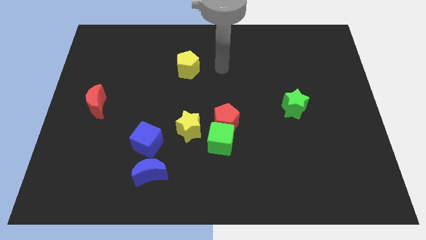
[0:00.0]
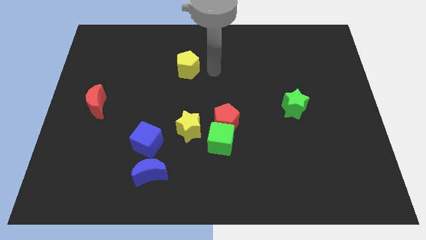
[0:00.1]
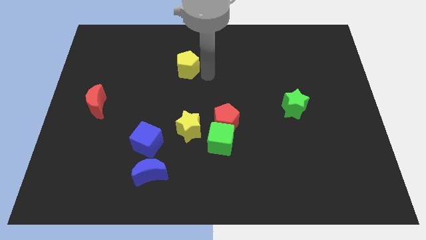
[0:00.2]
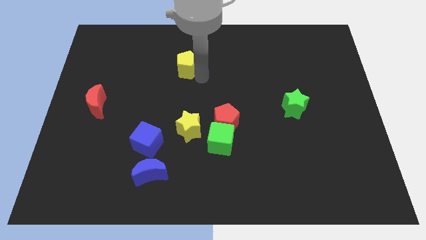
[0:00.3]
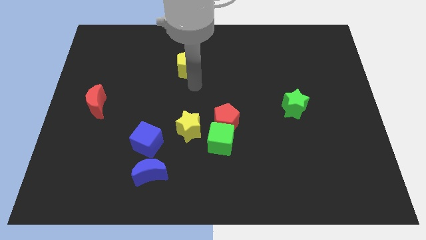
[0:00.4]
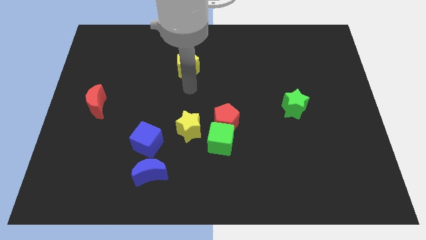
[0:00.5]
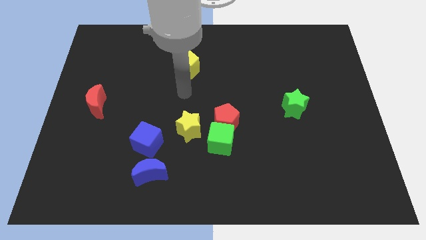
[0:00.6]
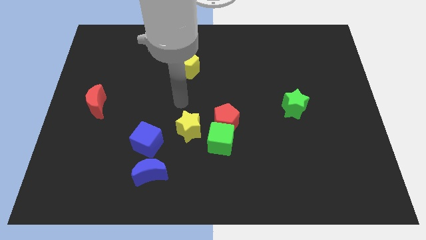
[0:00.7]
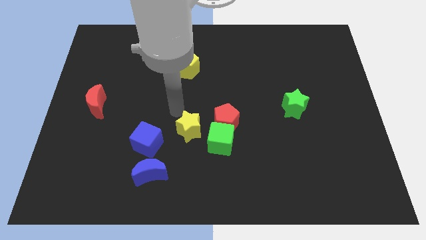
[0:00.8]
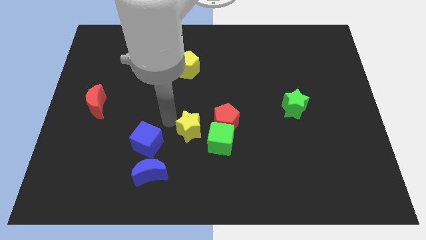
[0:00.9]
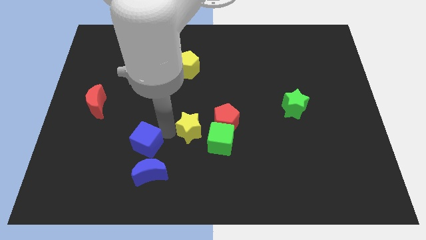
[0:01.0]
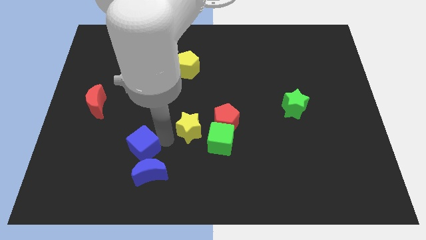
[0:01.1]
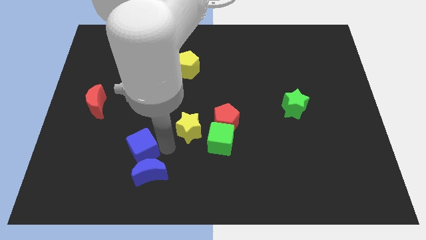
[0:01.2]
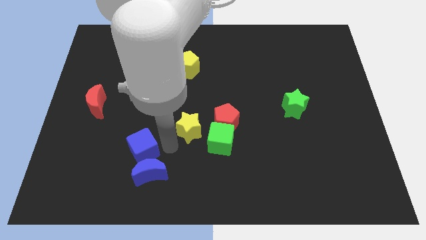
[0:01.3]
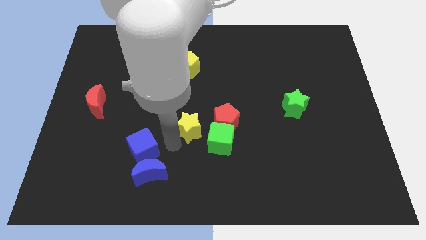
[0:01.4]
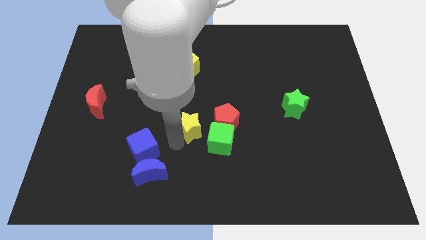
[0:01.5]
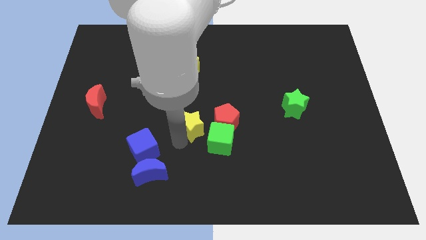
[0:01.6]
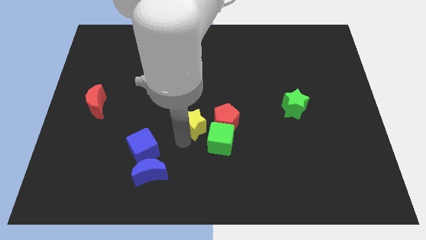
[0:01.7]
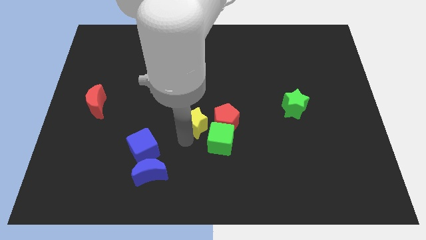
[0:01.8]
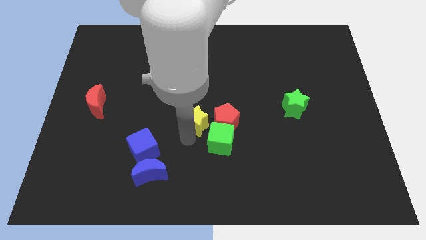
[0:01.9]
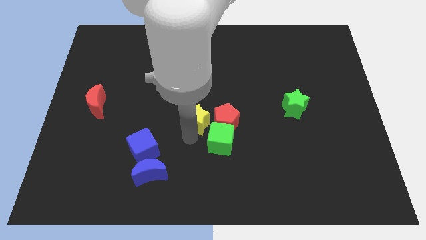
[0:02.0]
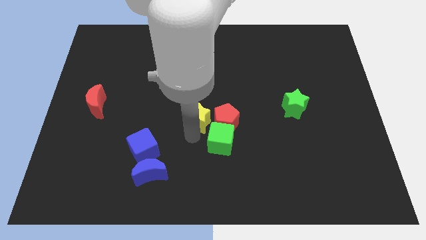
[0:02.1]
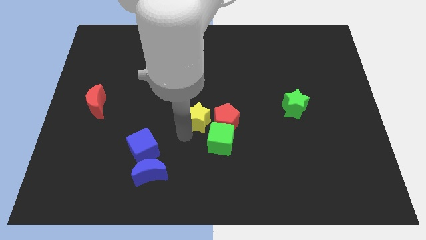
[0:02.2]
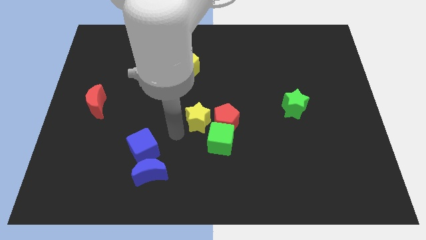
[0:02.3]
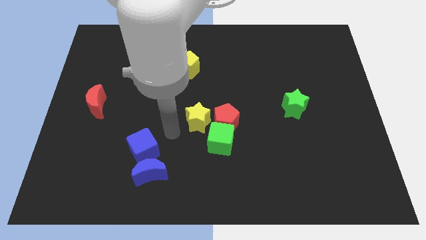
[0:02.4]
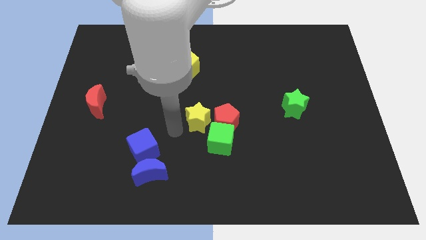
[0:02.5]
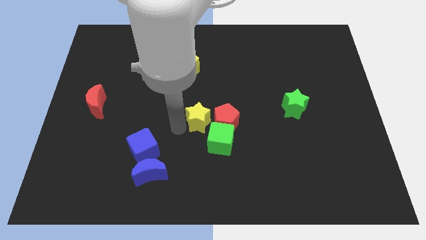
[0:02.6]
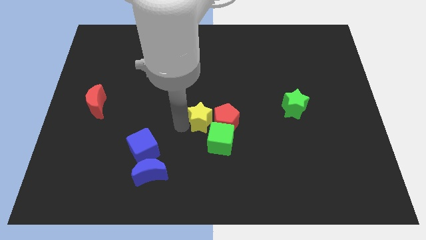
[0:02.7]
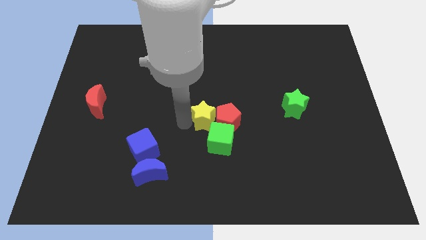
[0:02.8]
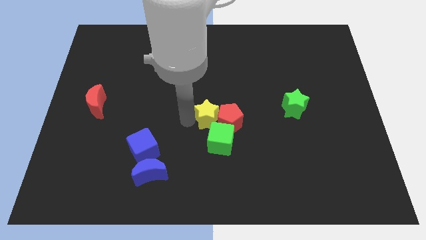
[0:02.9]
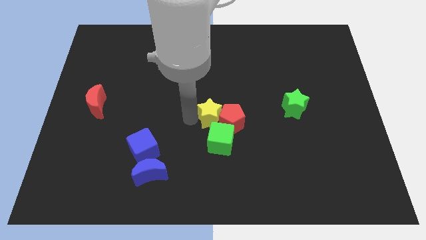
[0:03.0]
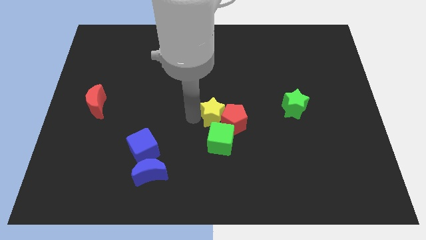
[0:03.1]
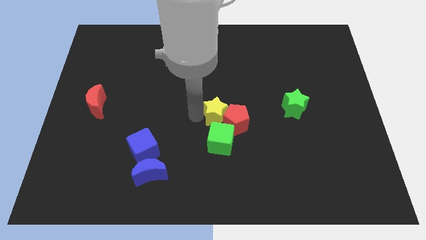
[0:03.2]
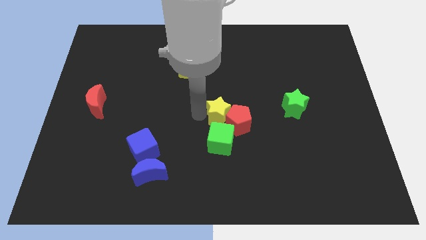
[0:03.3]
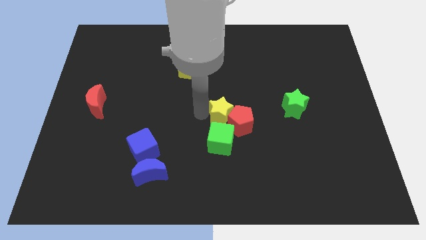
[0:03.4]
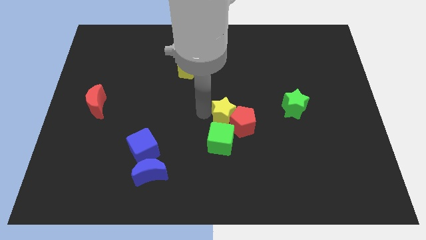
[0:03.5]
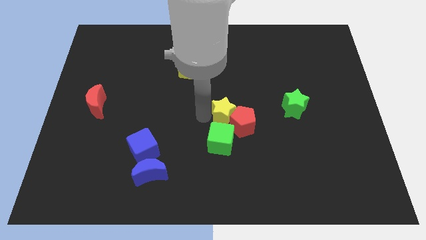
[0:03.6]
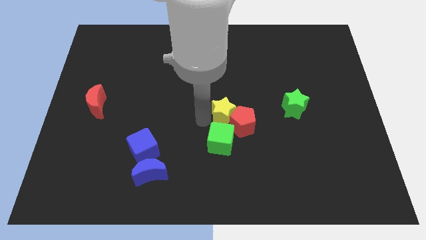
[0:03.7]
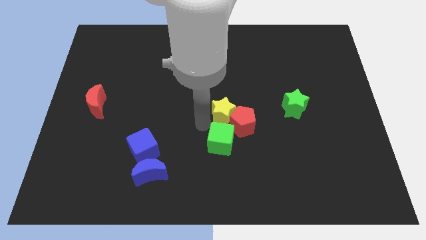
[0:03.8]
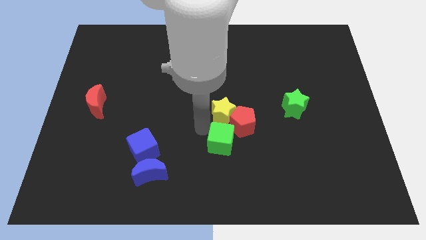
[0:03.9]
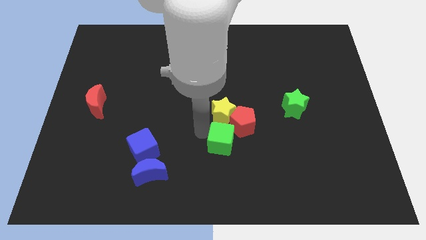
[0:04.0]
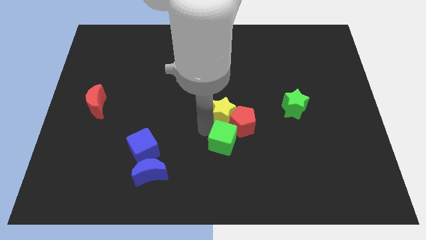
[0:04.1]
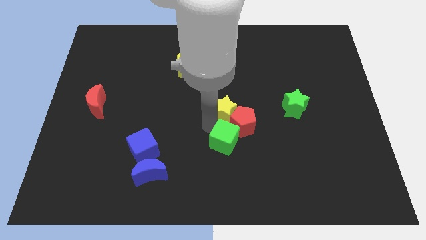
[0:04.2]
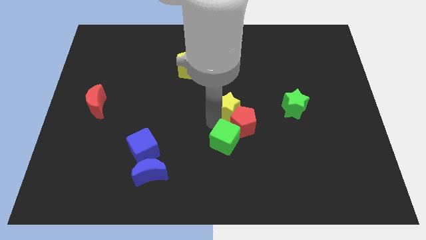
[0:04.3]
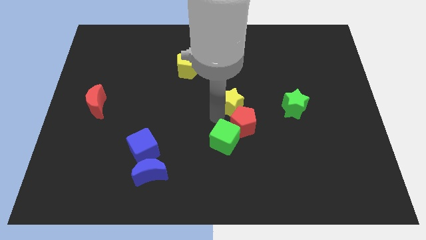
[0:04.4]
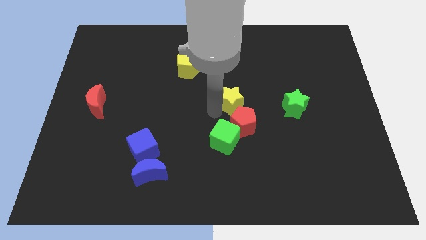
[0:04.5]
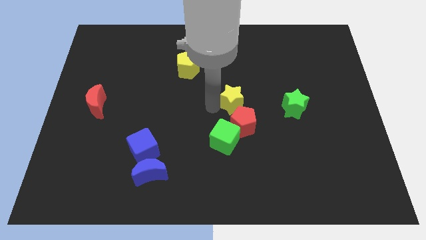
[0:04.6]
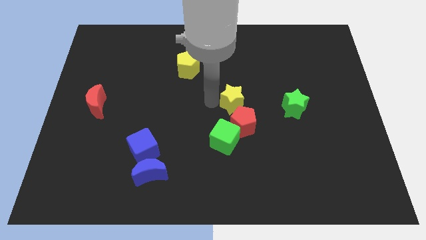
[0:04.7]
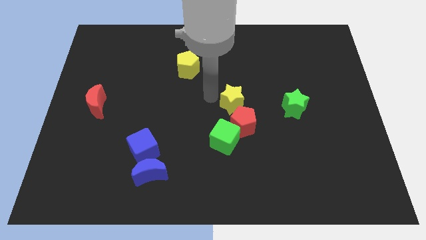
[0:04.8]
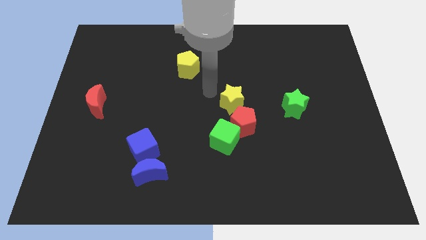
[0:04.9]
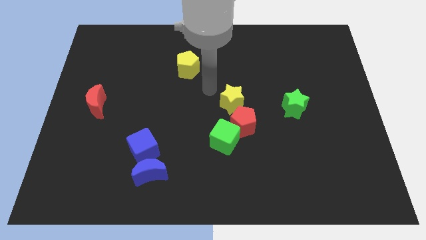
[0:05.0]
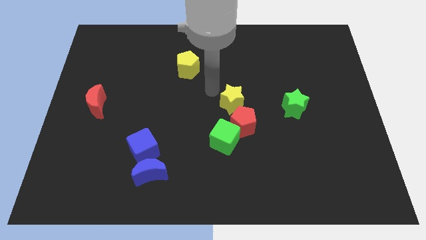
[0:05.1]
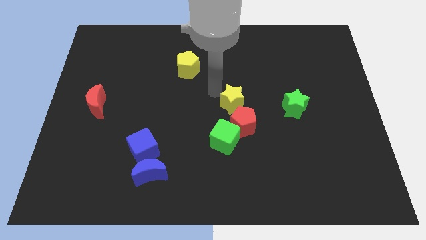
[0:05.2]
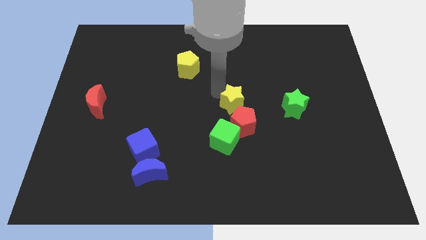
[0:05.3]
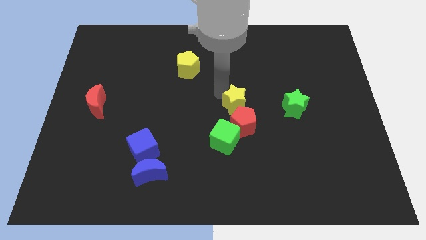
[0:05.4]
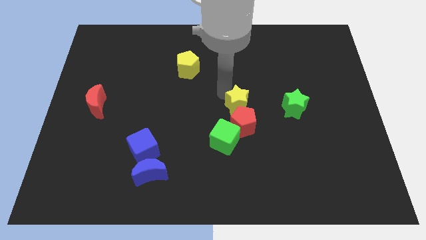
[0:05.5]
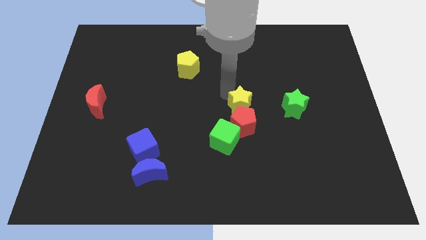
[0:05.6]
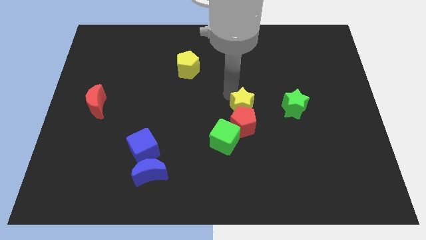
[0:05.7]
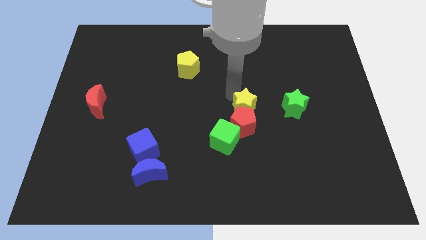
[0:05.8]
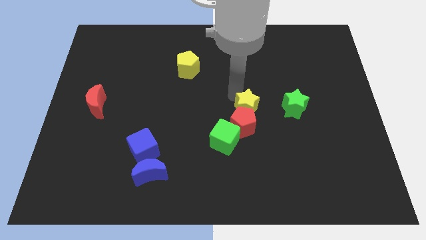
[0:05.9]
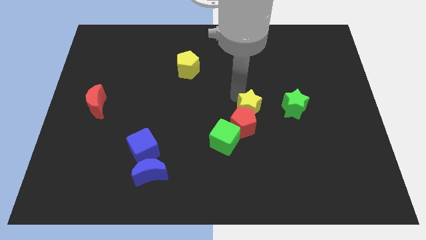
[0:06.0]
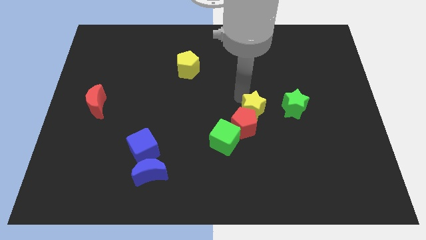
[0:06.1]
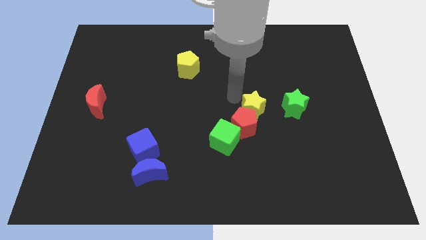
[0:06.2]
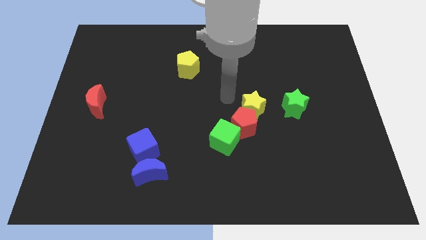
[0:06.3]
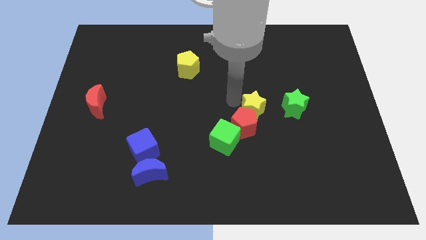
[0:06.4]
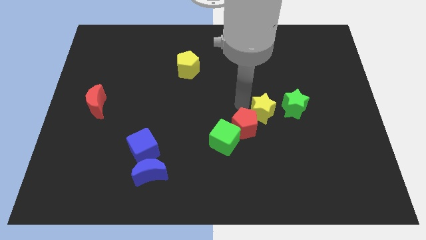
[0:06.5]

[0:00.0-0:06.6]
put the yellow star right of the red pentagon
